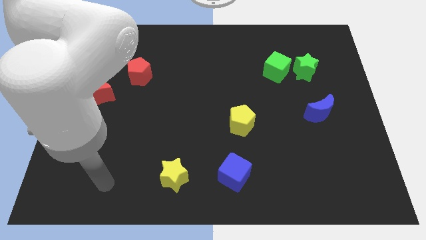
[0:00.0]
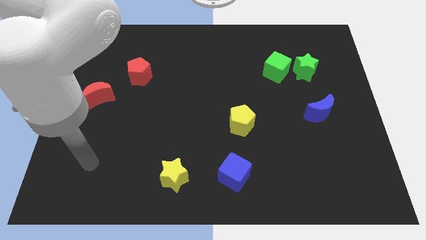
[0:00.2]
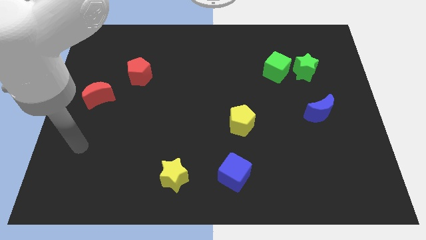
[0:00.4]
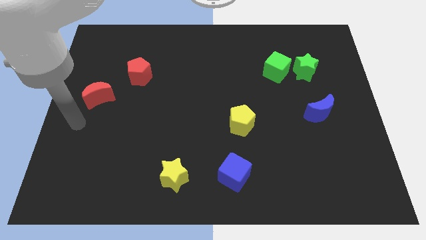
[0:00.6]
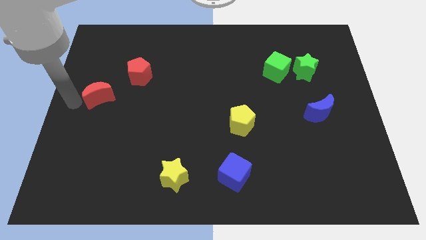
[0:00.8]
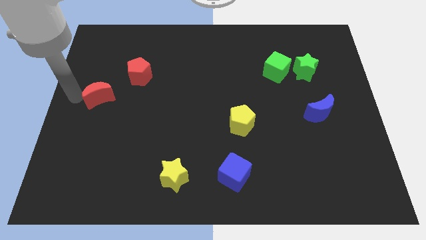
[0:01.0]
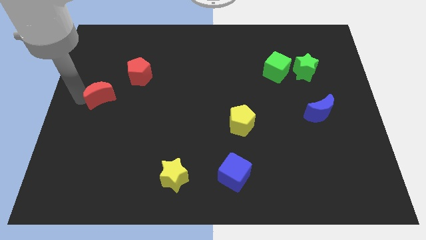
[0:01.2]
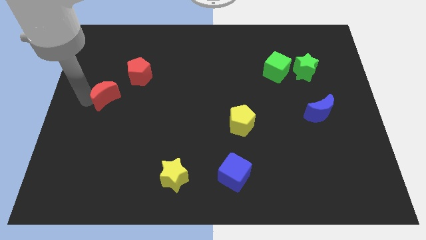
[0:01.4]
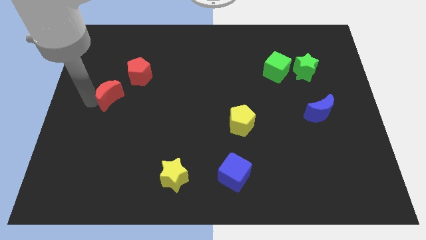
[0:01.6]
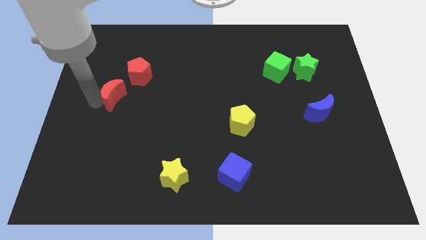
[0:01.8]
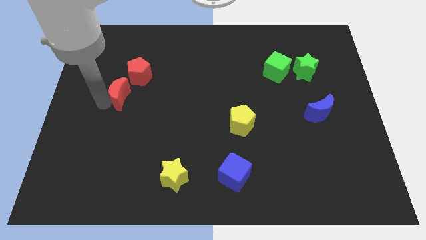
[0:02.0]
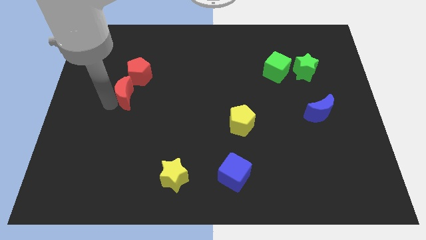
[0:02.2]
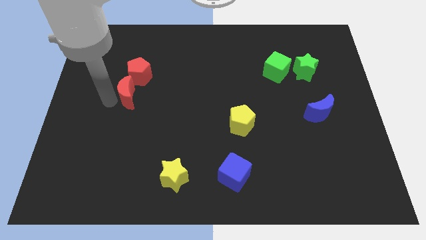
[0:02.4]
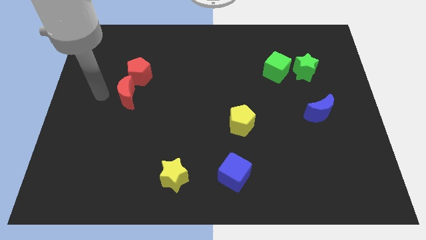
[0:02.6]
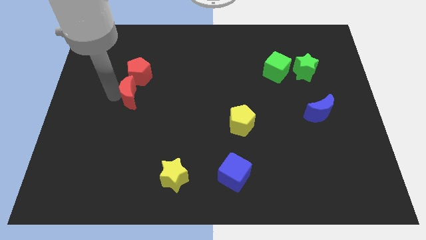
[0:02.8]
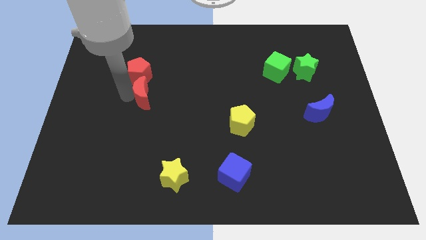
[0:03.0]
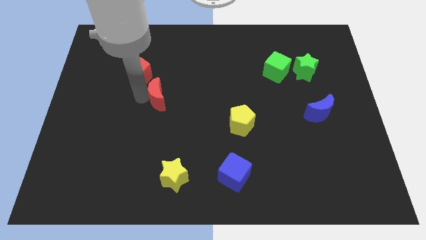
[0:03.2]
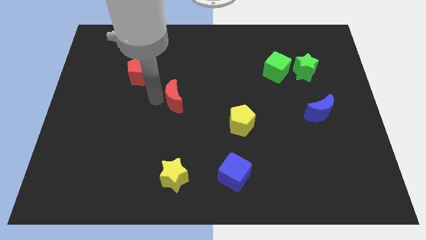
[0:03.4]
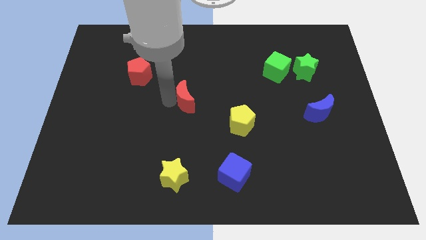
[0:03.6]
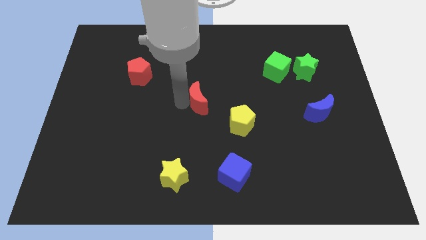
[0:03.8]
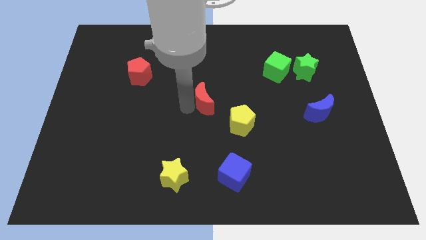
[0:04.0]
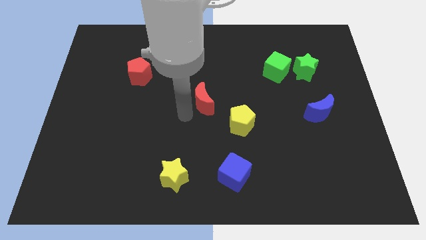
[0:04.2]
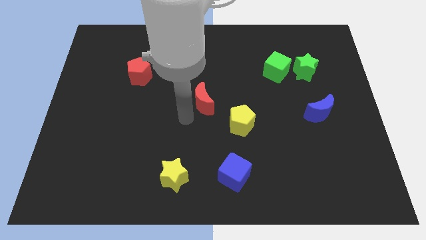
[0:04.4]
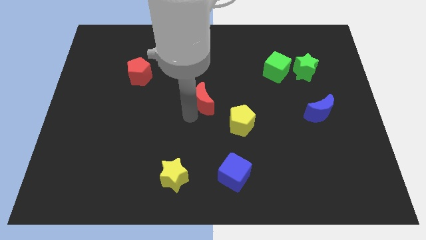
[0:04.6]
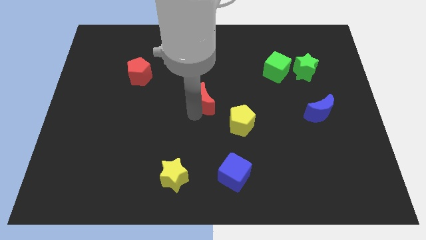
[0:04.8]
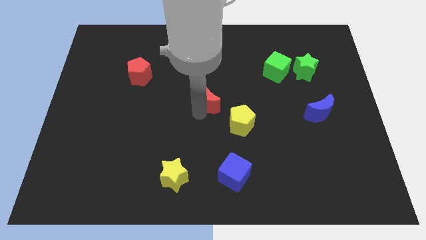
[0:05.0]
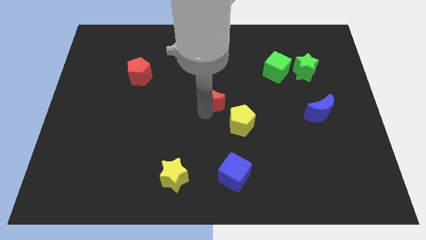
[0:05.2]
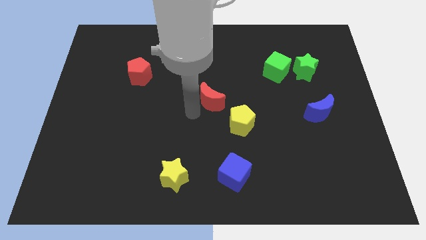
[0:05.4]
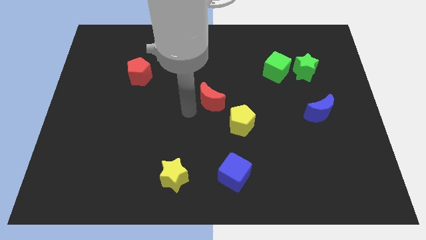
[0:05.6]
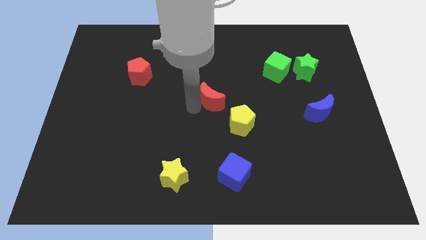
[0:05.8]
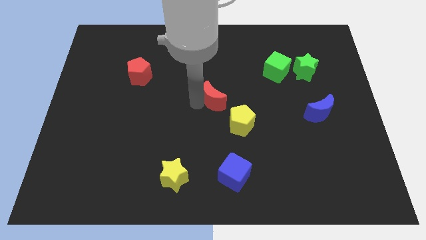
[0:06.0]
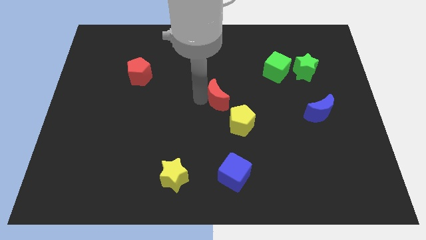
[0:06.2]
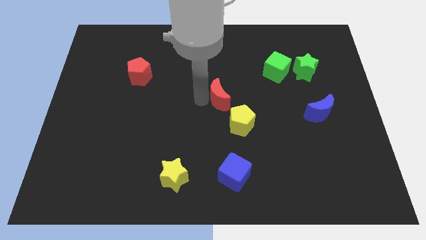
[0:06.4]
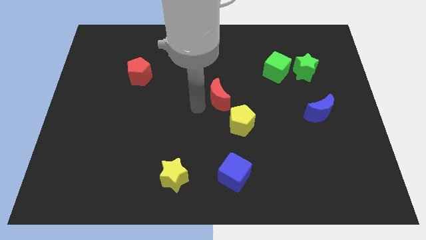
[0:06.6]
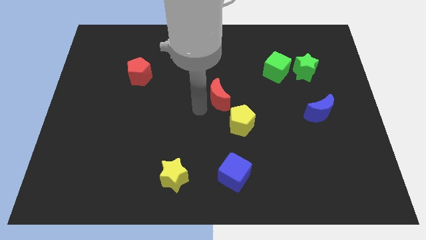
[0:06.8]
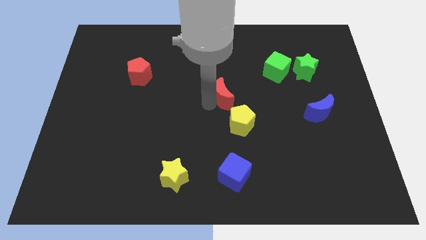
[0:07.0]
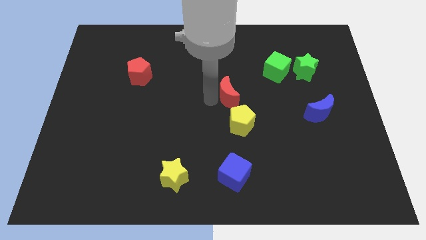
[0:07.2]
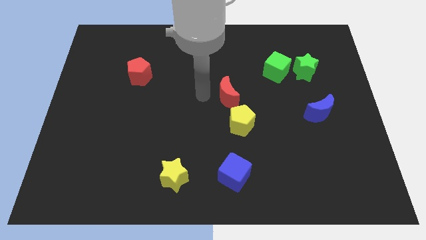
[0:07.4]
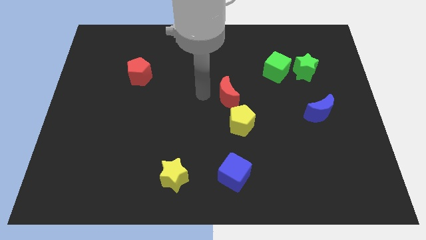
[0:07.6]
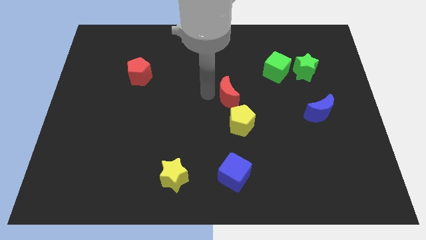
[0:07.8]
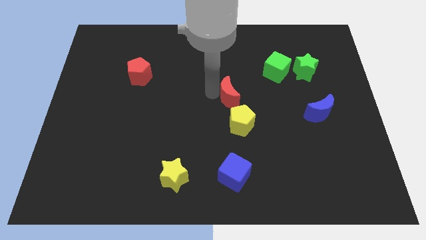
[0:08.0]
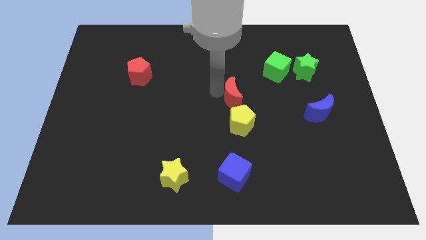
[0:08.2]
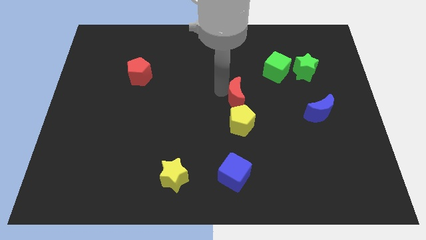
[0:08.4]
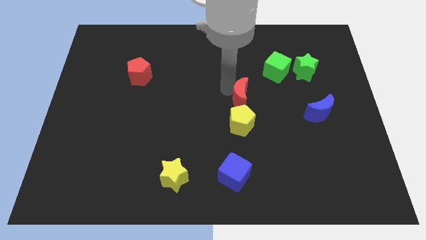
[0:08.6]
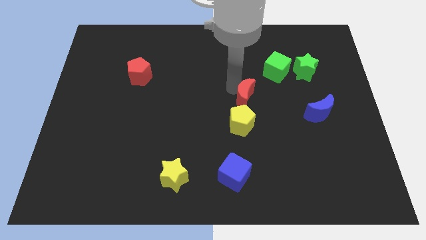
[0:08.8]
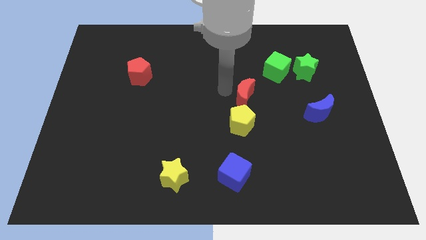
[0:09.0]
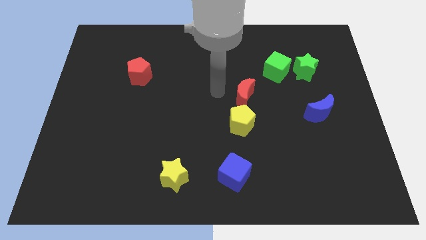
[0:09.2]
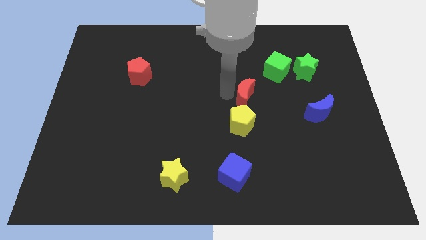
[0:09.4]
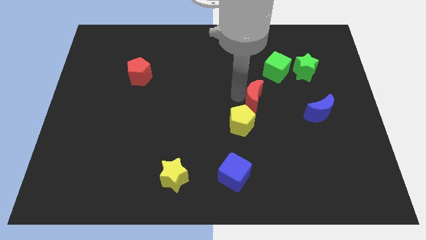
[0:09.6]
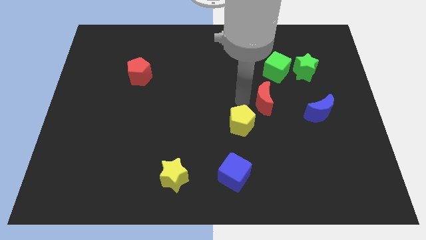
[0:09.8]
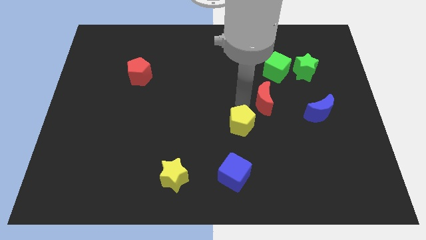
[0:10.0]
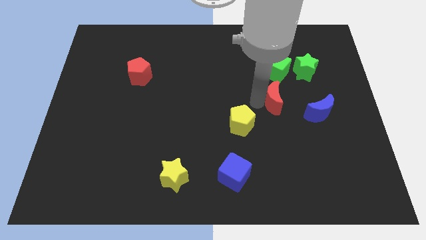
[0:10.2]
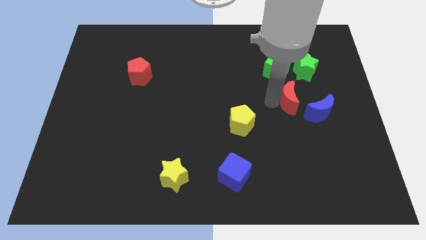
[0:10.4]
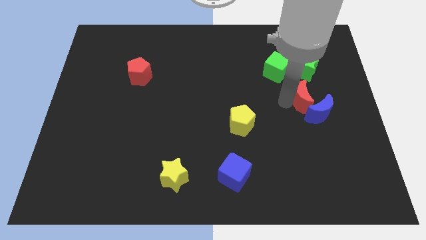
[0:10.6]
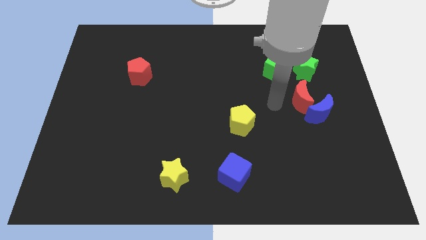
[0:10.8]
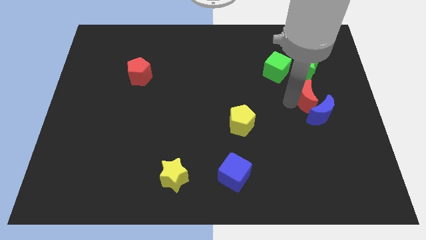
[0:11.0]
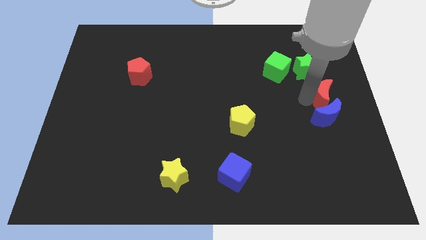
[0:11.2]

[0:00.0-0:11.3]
push the red moon to the right side of the board

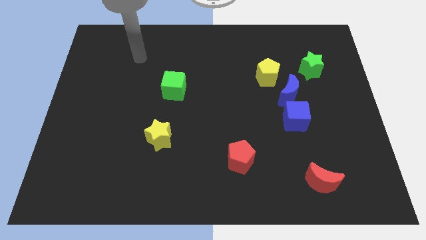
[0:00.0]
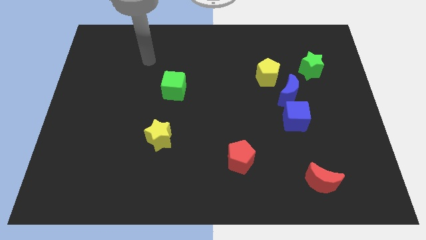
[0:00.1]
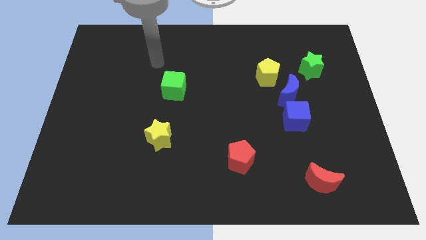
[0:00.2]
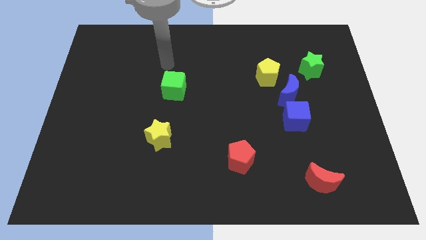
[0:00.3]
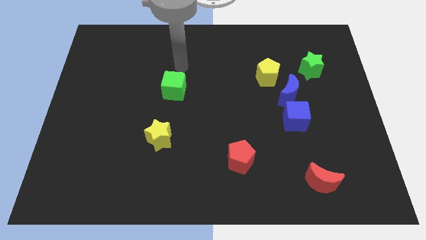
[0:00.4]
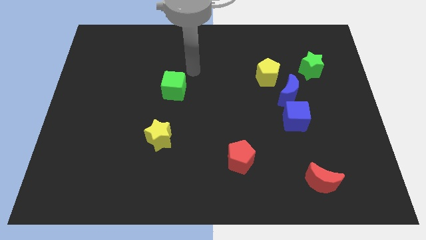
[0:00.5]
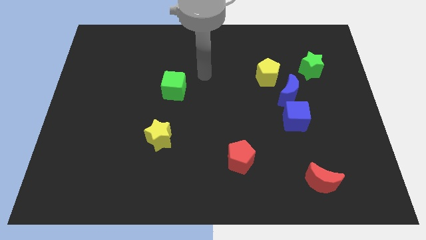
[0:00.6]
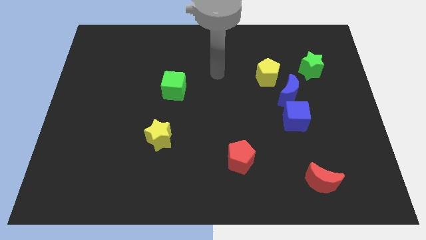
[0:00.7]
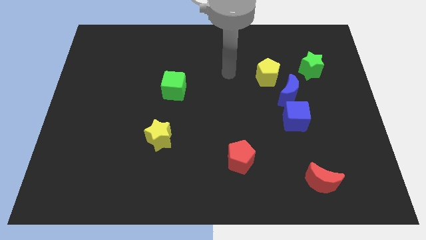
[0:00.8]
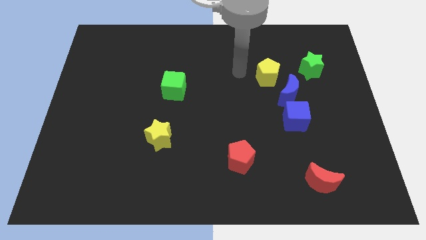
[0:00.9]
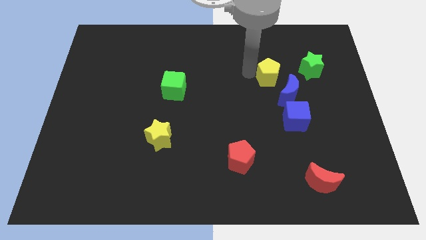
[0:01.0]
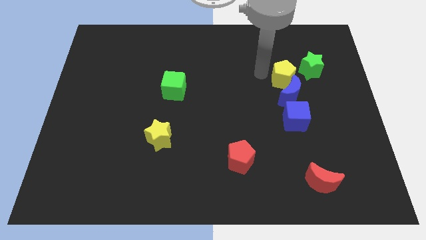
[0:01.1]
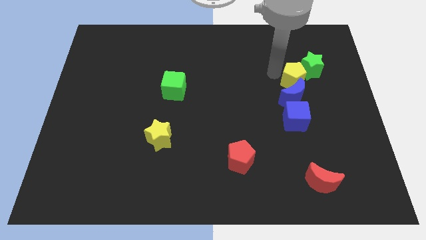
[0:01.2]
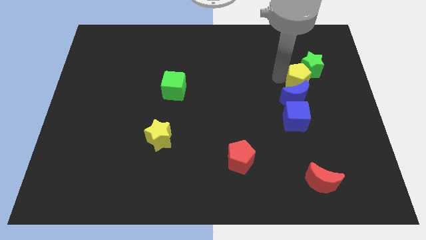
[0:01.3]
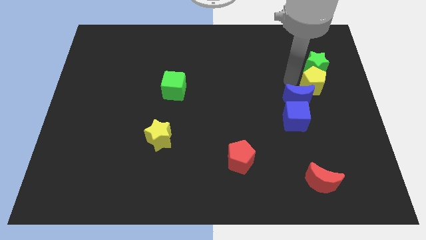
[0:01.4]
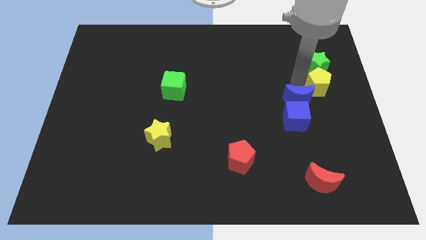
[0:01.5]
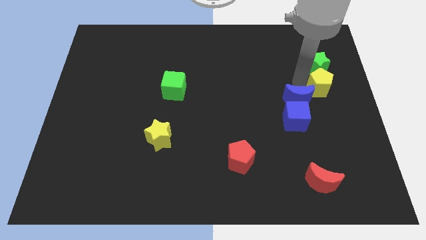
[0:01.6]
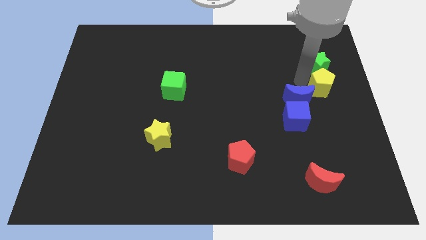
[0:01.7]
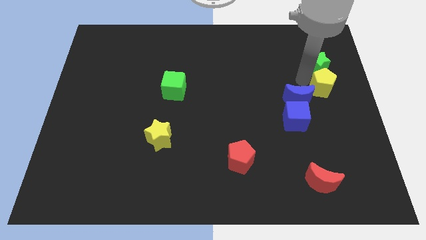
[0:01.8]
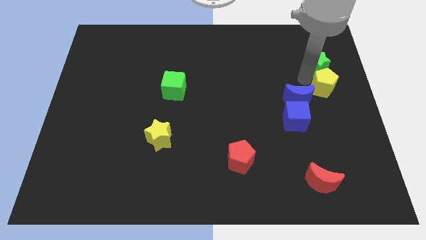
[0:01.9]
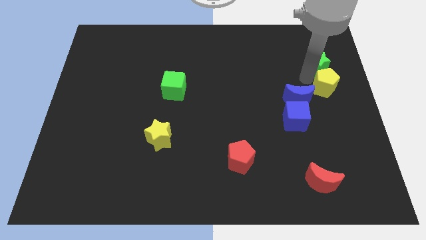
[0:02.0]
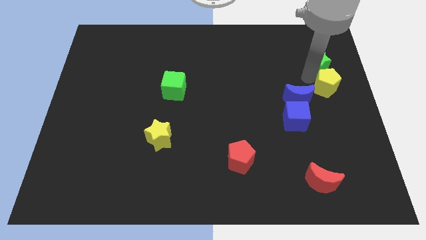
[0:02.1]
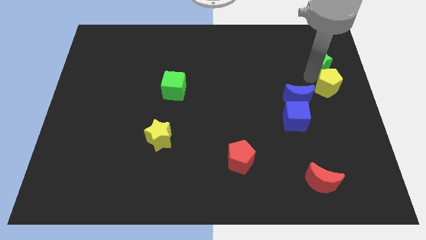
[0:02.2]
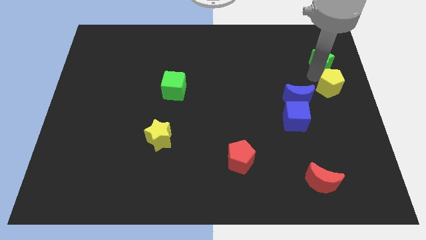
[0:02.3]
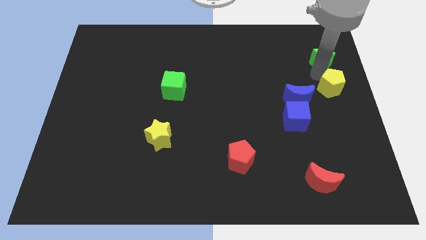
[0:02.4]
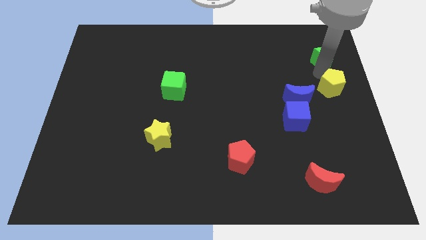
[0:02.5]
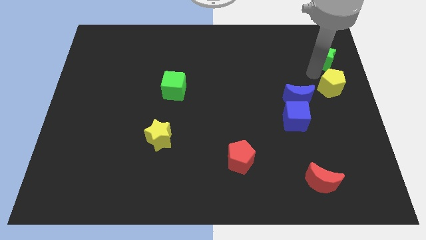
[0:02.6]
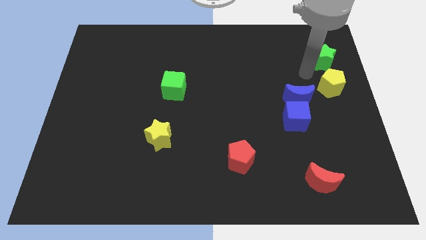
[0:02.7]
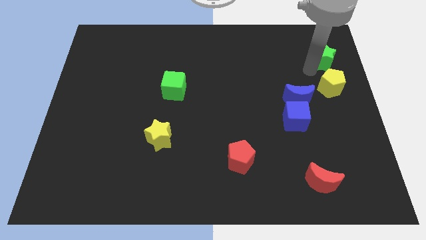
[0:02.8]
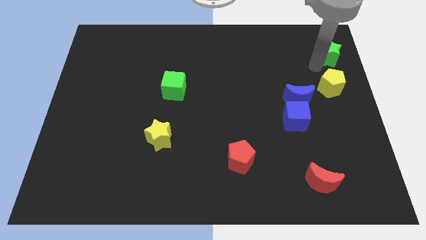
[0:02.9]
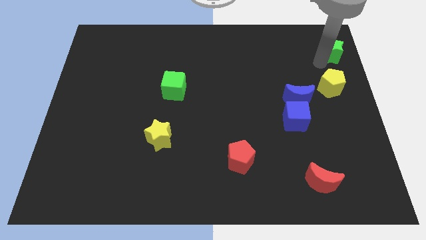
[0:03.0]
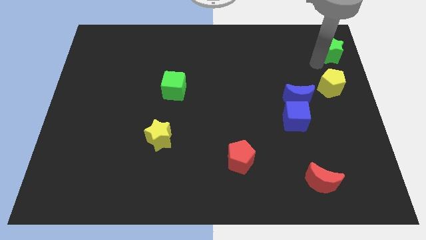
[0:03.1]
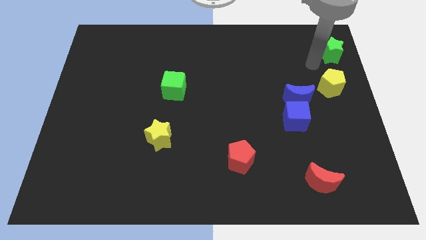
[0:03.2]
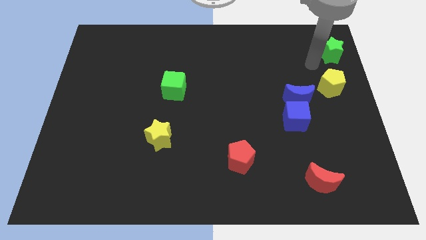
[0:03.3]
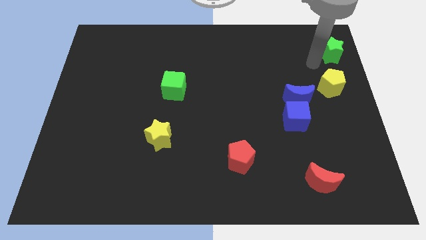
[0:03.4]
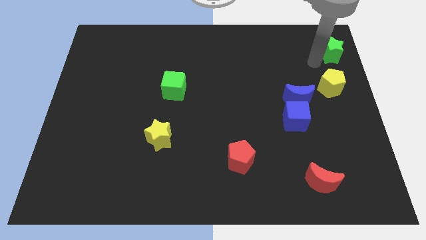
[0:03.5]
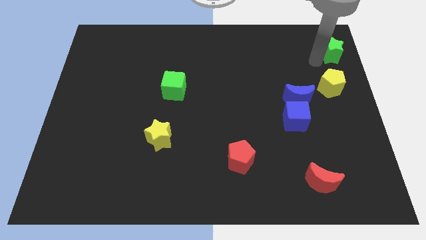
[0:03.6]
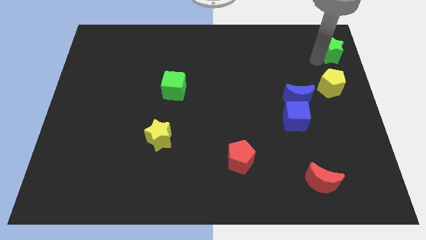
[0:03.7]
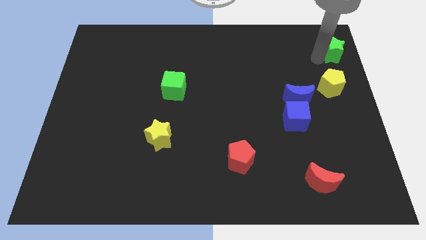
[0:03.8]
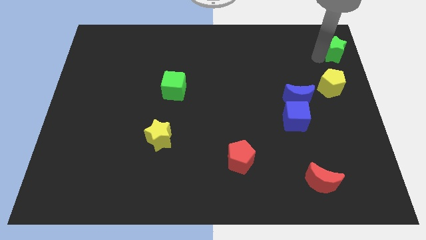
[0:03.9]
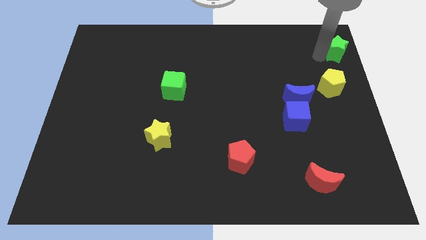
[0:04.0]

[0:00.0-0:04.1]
push the green star to the top right corner
